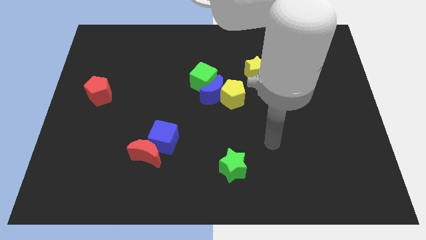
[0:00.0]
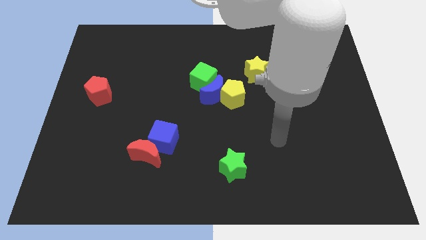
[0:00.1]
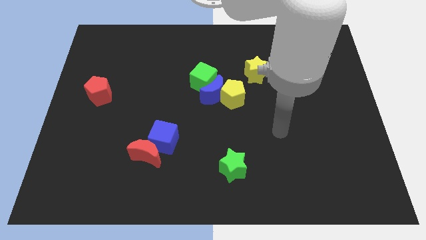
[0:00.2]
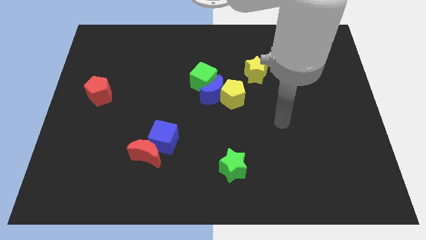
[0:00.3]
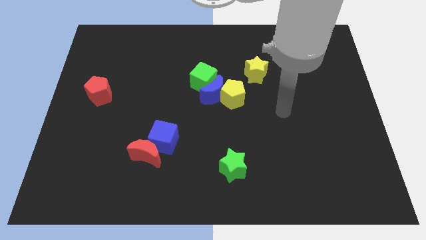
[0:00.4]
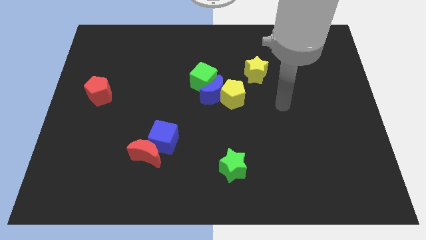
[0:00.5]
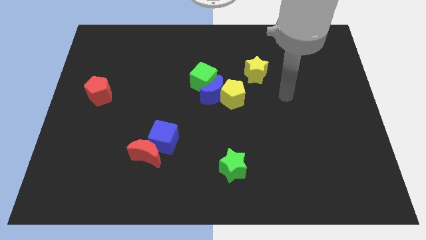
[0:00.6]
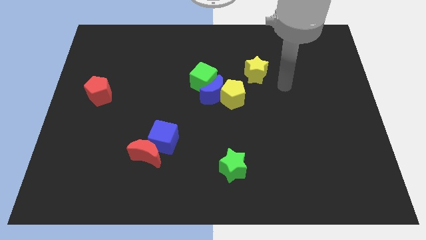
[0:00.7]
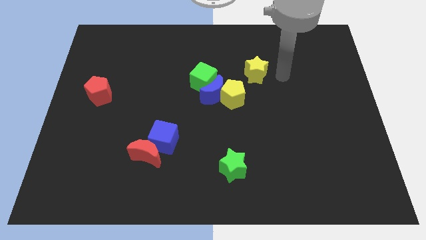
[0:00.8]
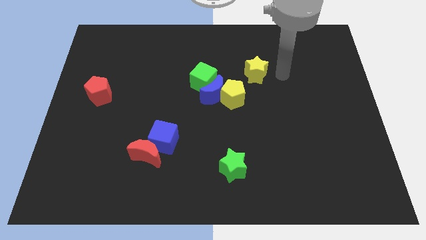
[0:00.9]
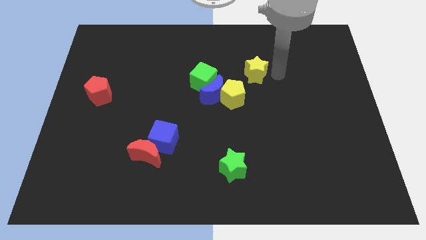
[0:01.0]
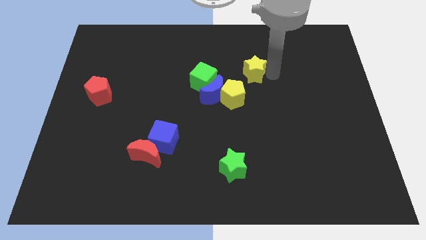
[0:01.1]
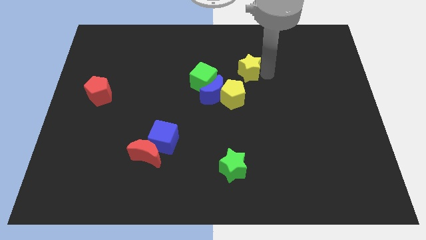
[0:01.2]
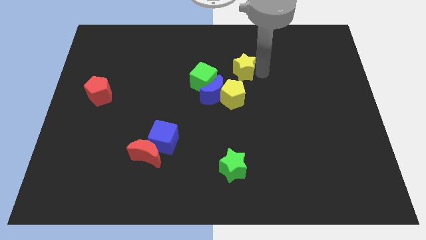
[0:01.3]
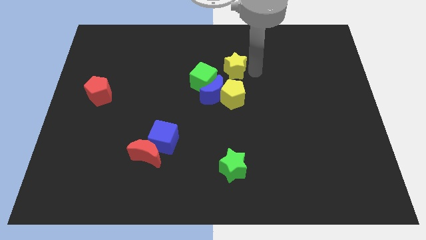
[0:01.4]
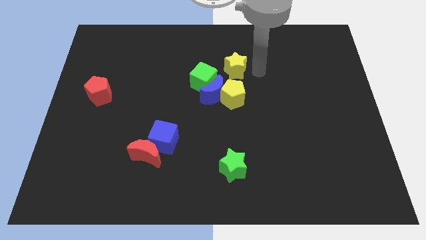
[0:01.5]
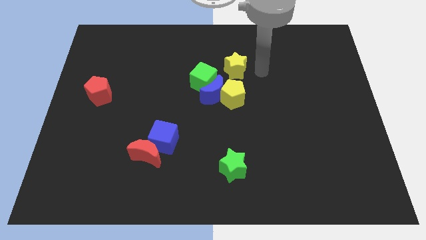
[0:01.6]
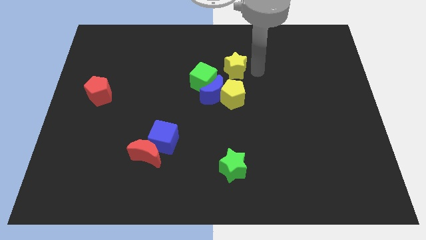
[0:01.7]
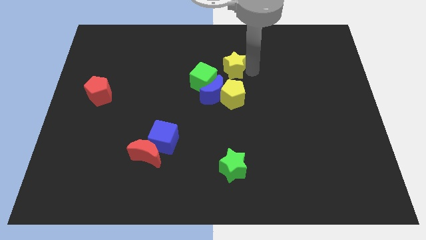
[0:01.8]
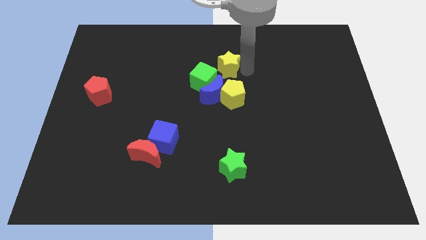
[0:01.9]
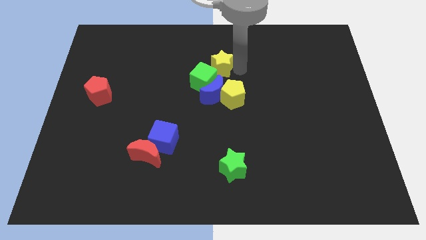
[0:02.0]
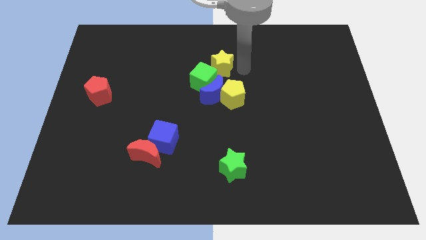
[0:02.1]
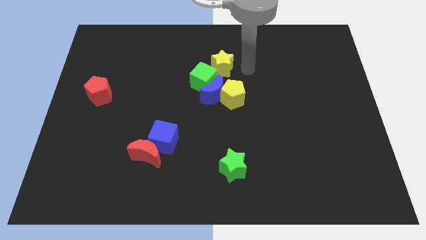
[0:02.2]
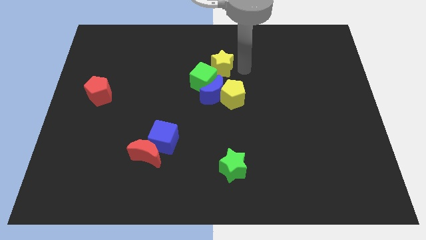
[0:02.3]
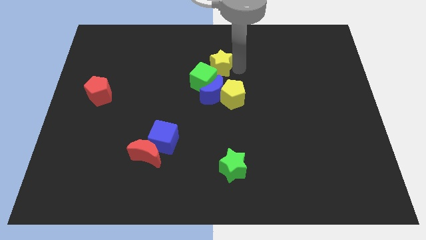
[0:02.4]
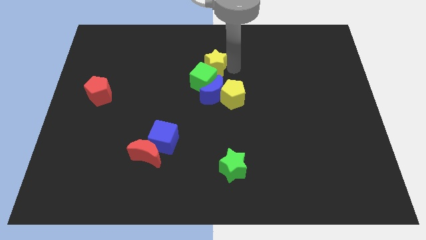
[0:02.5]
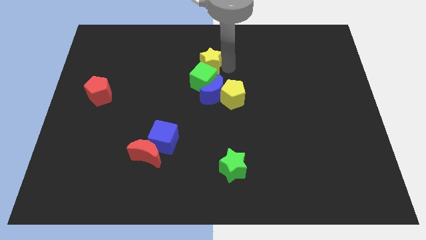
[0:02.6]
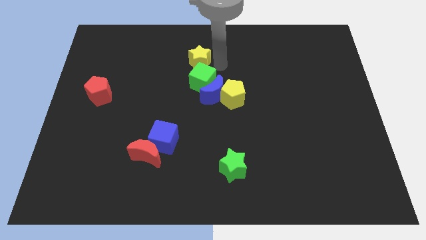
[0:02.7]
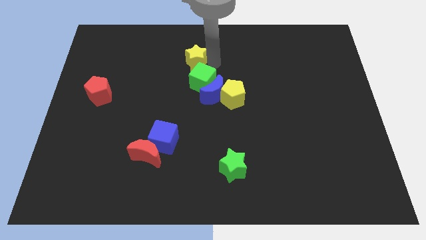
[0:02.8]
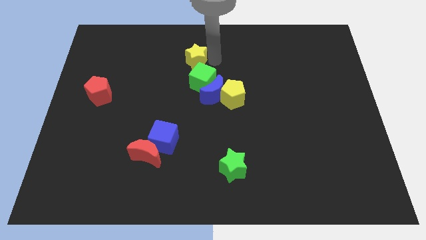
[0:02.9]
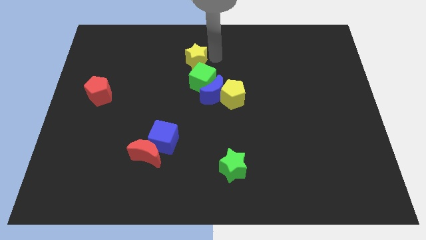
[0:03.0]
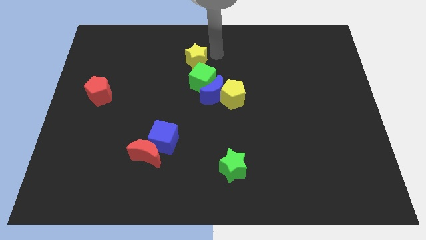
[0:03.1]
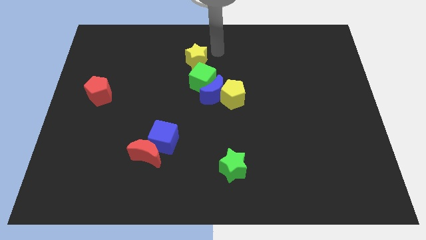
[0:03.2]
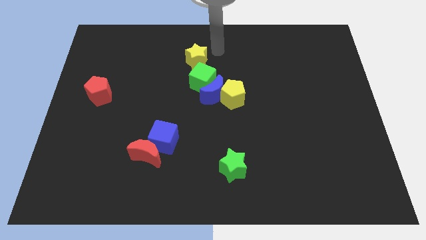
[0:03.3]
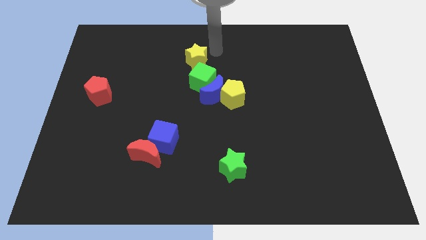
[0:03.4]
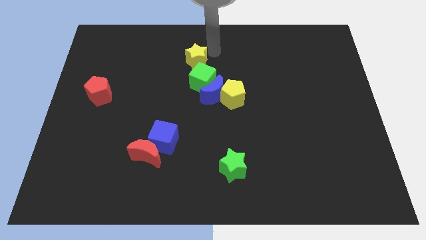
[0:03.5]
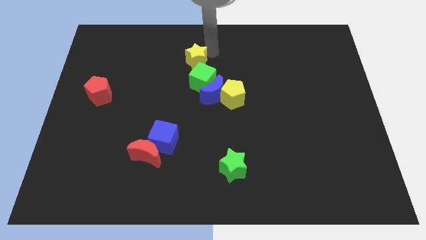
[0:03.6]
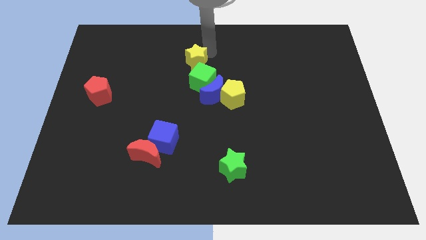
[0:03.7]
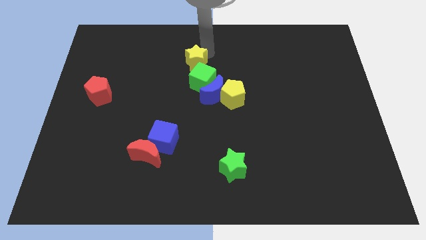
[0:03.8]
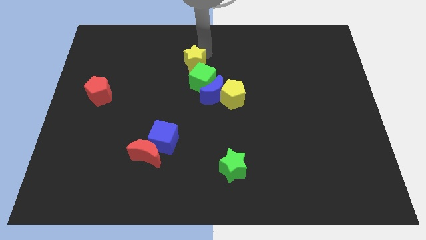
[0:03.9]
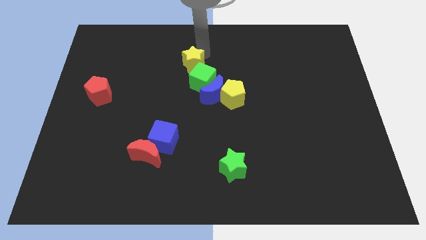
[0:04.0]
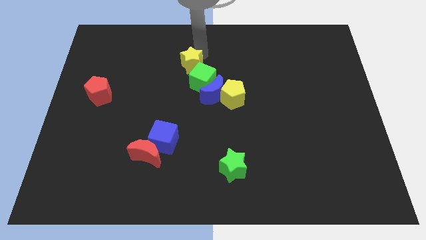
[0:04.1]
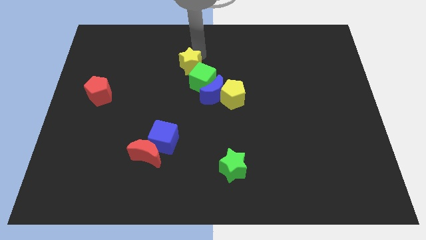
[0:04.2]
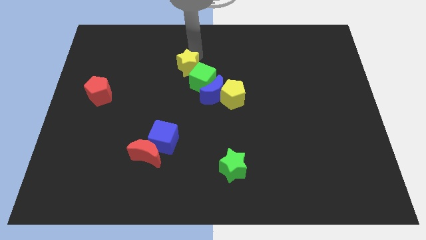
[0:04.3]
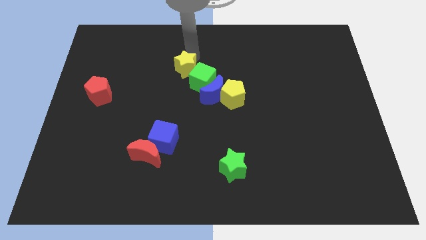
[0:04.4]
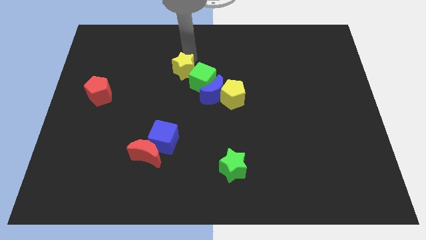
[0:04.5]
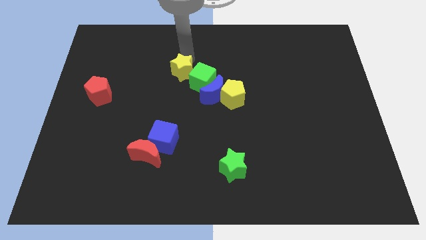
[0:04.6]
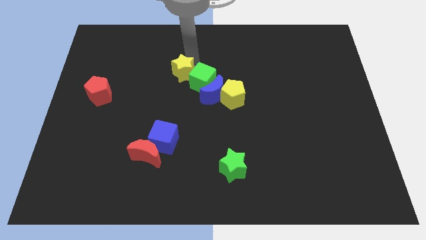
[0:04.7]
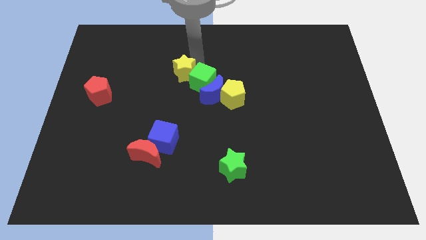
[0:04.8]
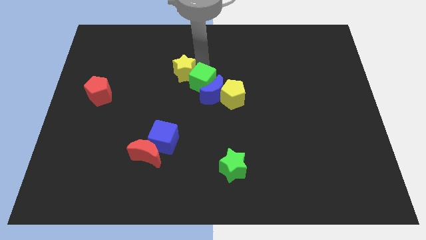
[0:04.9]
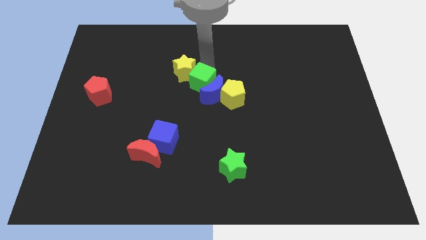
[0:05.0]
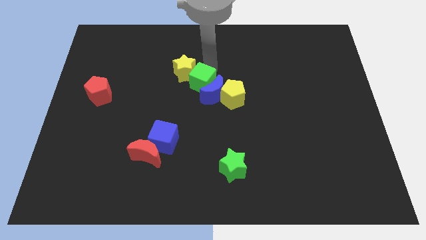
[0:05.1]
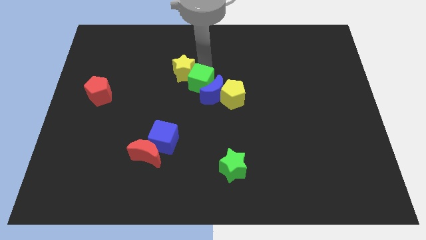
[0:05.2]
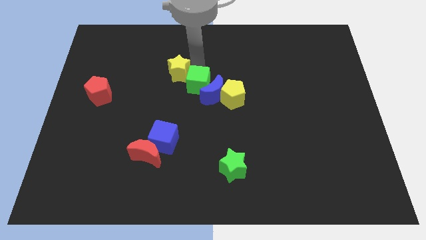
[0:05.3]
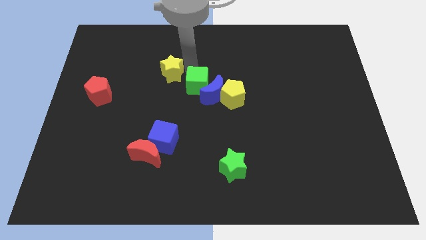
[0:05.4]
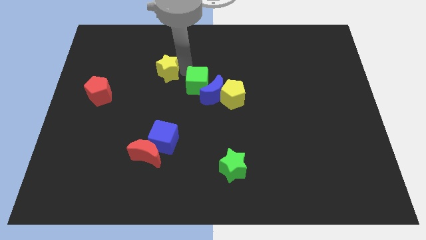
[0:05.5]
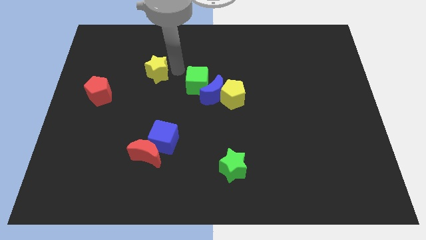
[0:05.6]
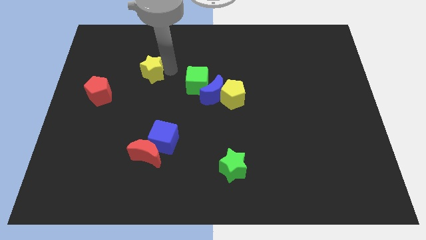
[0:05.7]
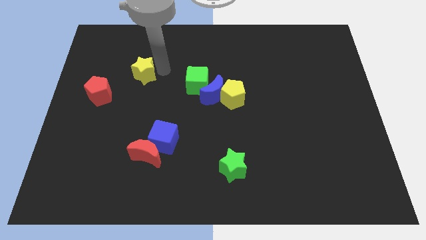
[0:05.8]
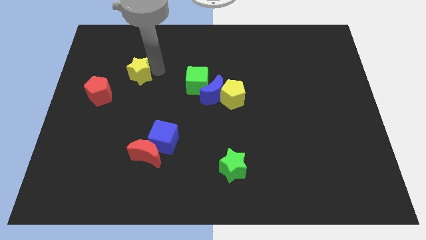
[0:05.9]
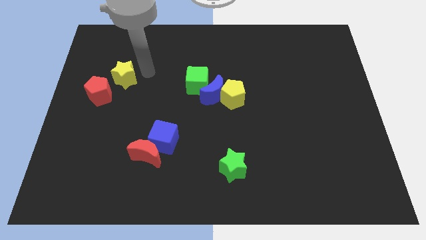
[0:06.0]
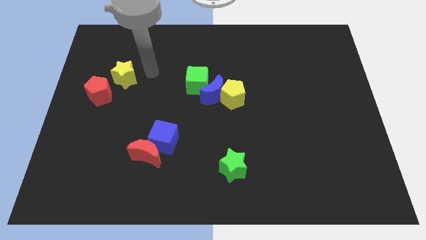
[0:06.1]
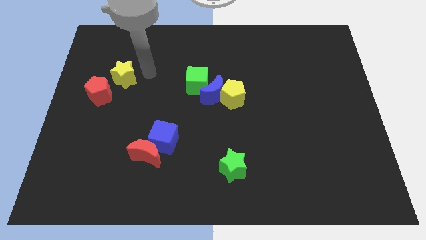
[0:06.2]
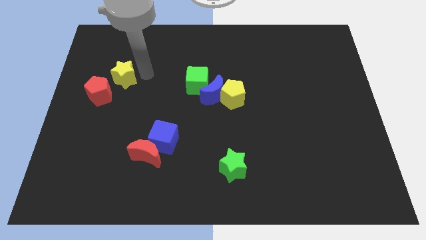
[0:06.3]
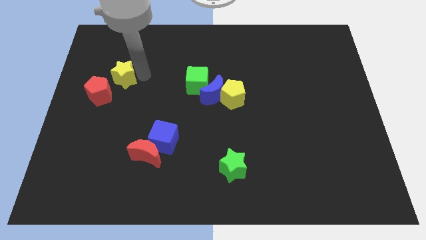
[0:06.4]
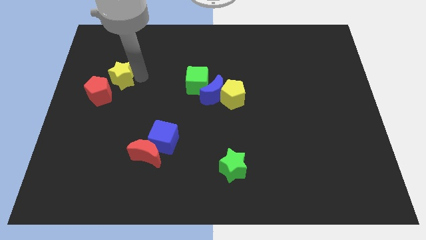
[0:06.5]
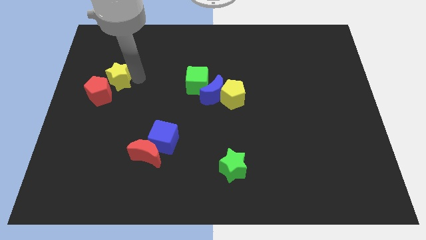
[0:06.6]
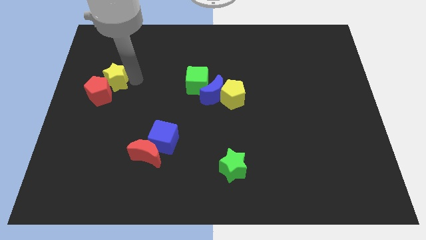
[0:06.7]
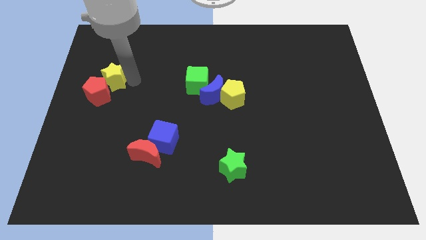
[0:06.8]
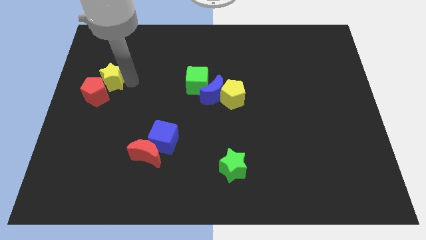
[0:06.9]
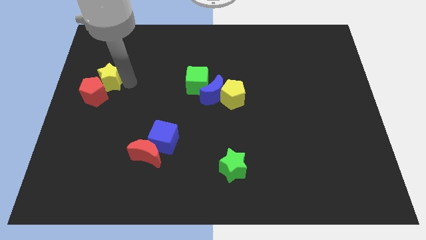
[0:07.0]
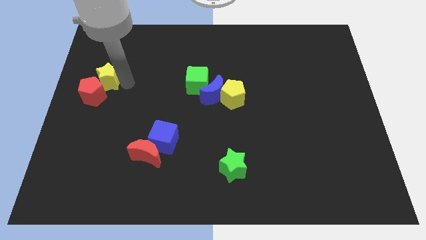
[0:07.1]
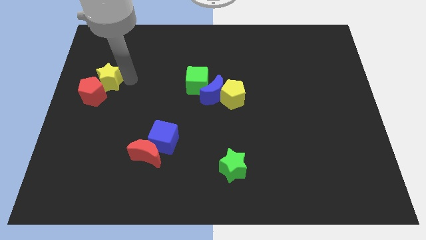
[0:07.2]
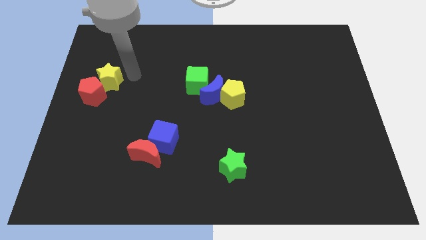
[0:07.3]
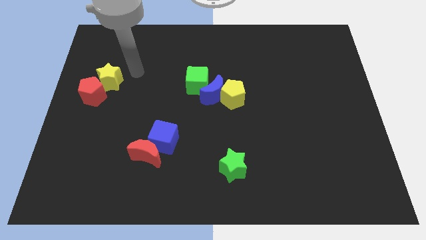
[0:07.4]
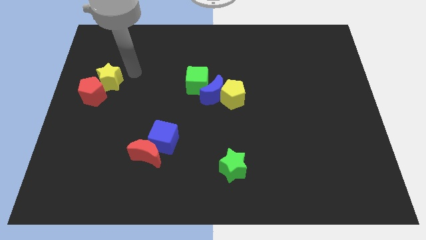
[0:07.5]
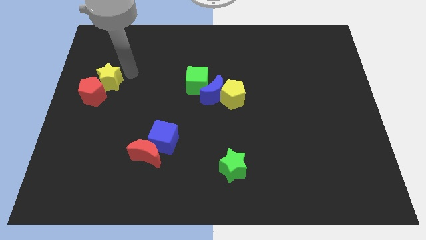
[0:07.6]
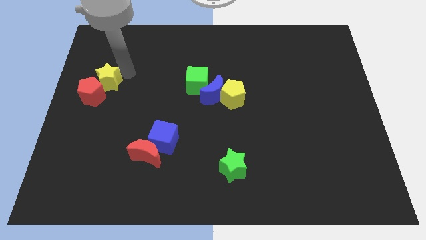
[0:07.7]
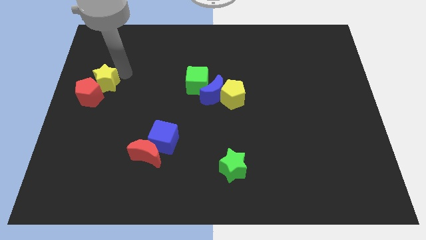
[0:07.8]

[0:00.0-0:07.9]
push the yellow star to the left side
